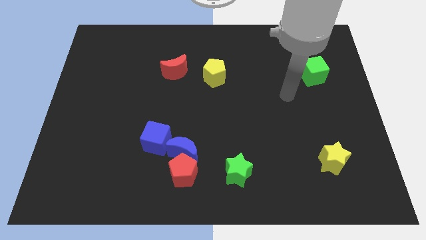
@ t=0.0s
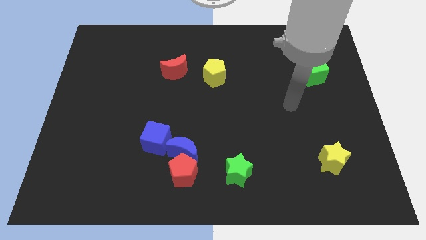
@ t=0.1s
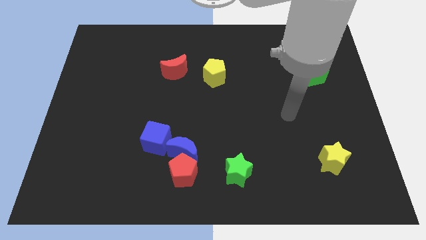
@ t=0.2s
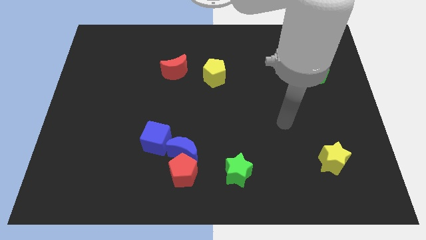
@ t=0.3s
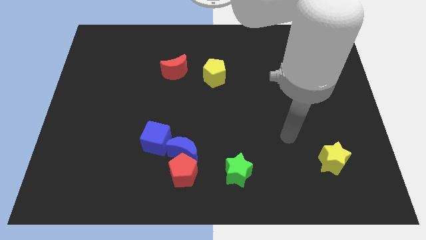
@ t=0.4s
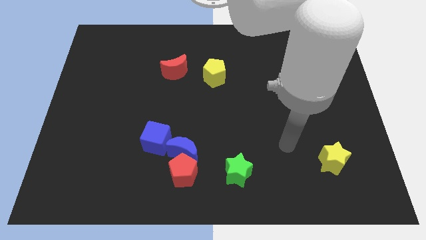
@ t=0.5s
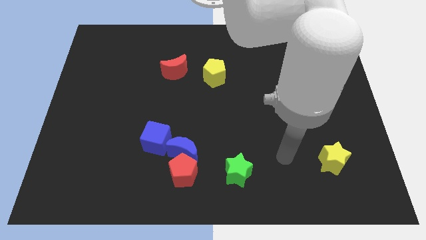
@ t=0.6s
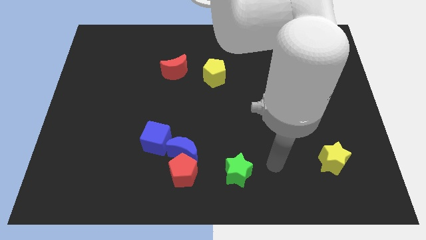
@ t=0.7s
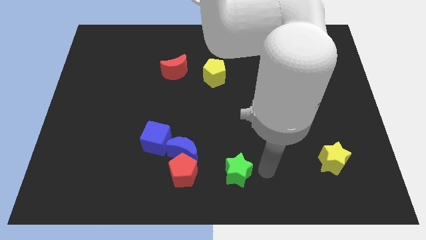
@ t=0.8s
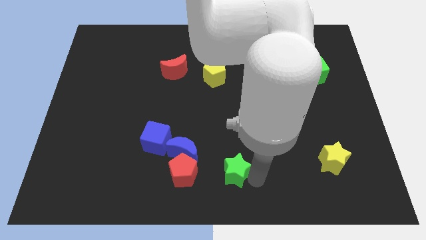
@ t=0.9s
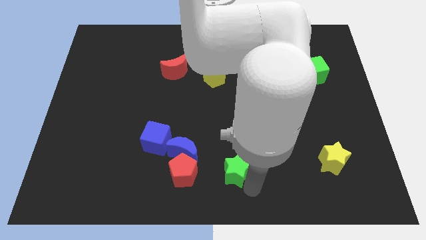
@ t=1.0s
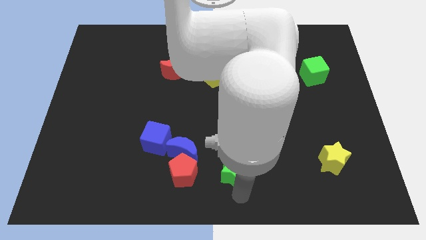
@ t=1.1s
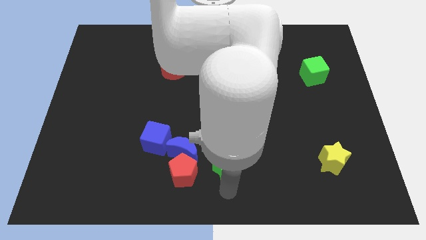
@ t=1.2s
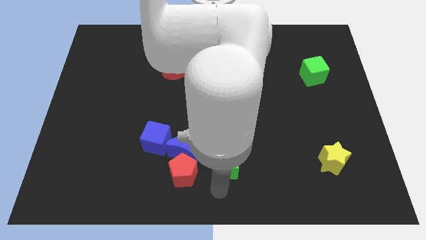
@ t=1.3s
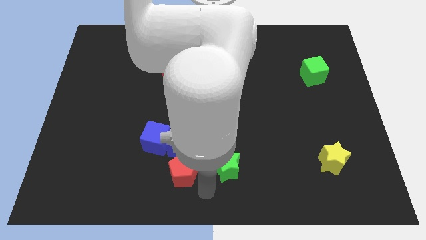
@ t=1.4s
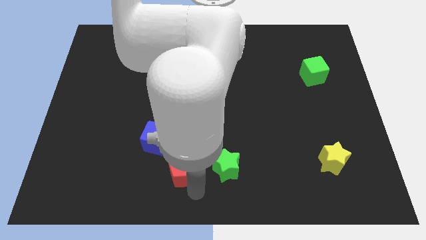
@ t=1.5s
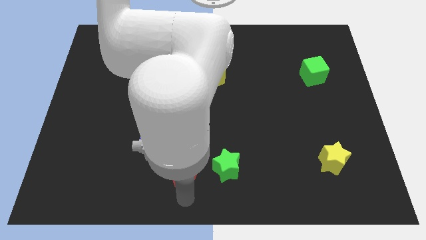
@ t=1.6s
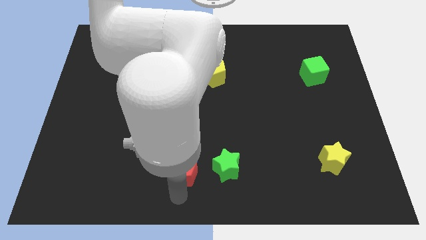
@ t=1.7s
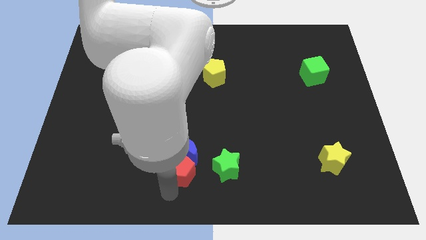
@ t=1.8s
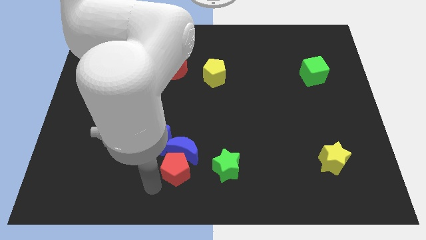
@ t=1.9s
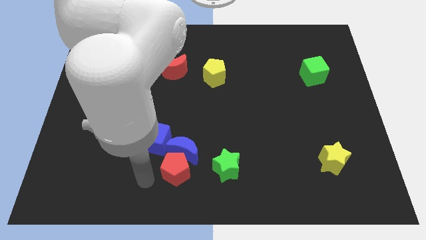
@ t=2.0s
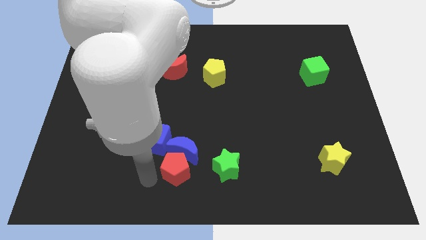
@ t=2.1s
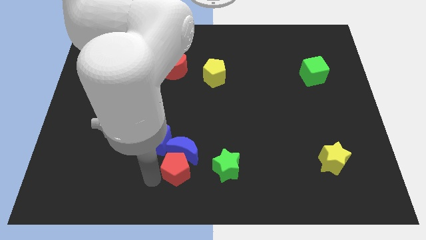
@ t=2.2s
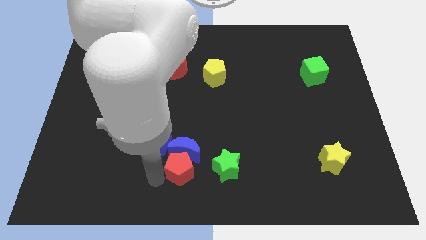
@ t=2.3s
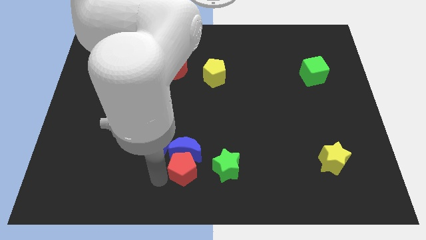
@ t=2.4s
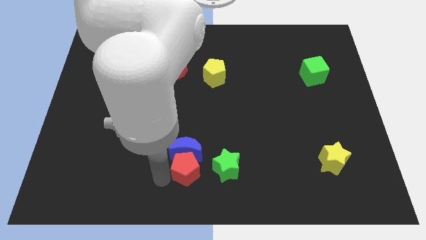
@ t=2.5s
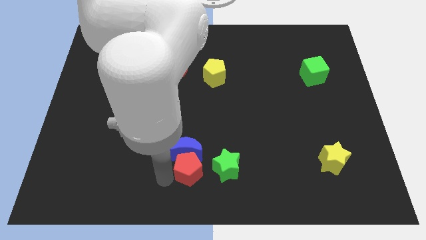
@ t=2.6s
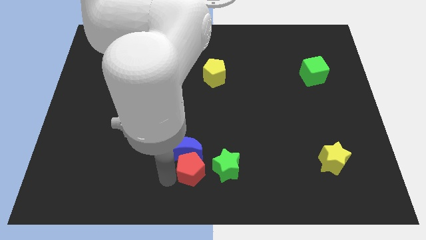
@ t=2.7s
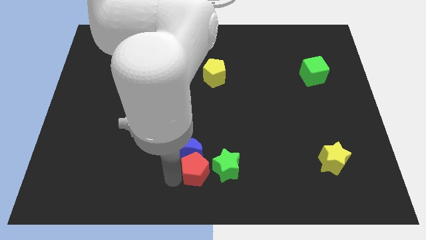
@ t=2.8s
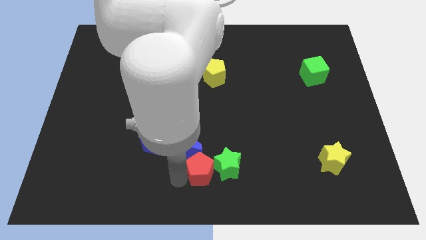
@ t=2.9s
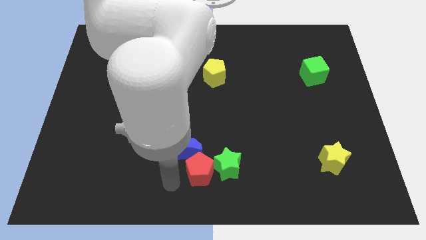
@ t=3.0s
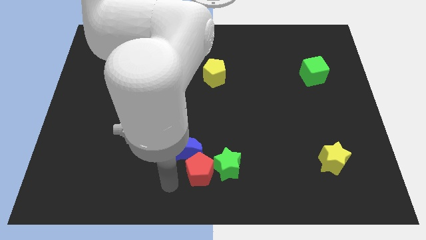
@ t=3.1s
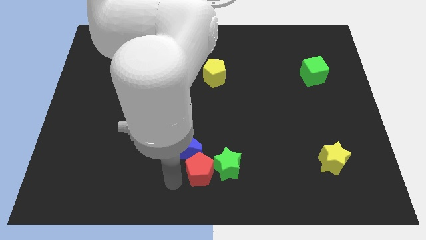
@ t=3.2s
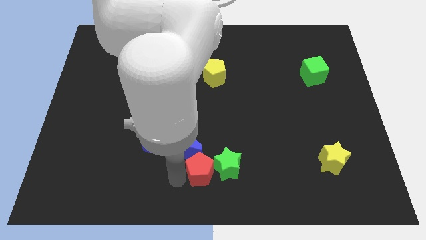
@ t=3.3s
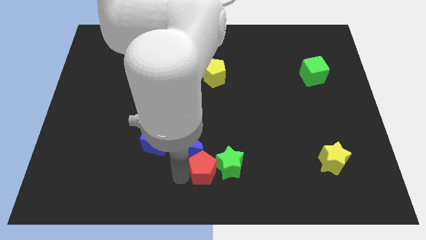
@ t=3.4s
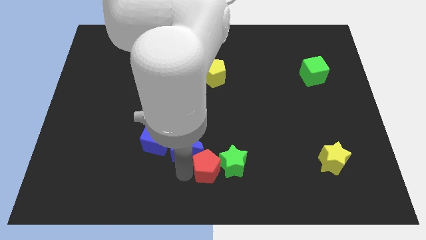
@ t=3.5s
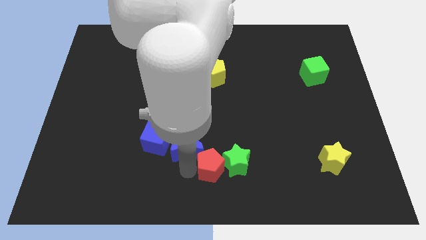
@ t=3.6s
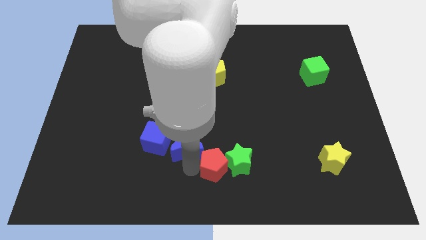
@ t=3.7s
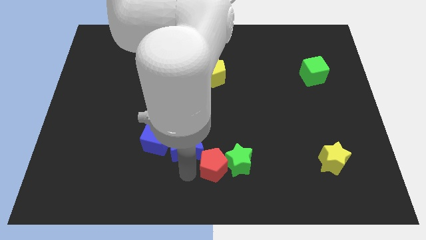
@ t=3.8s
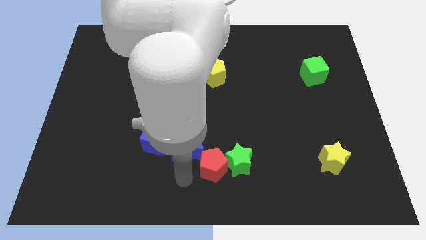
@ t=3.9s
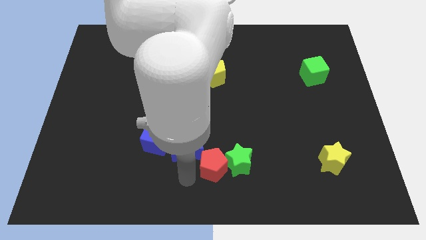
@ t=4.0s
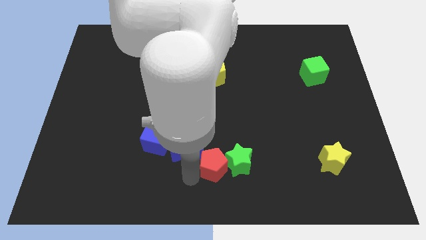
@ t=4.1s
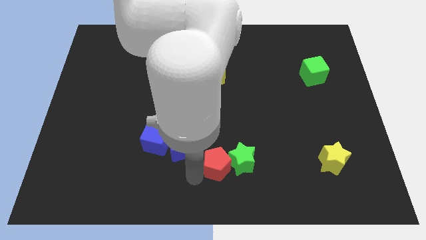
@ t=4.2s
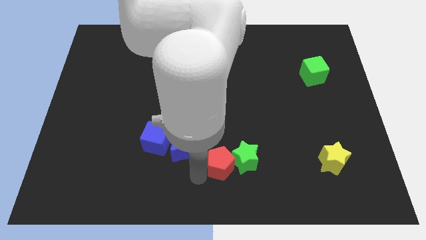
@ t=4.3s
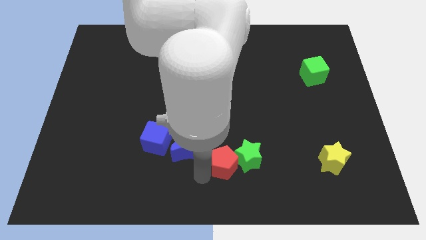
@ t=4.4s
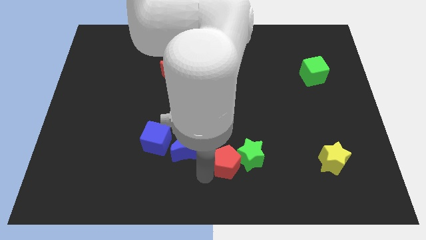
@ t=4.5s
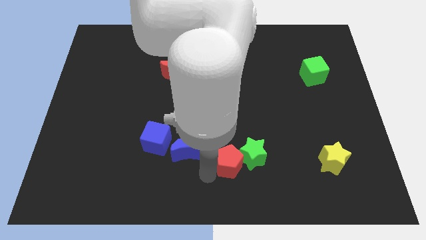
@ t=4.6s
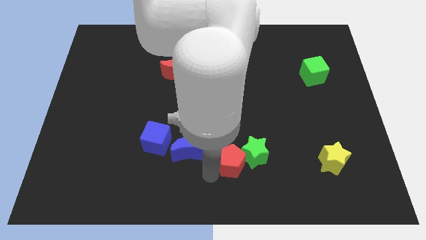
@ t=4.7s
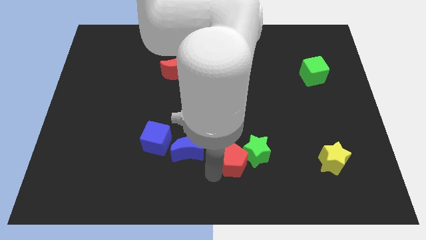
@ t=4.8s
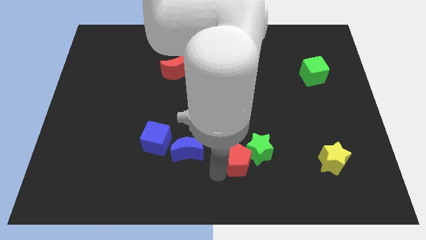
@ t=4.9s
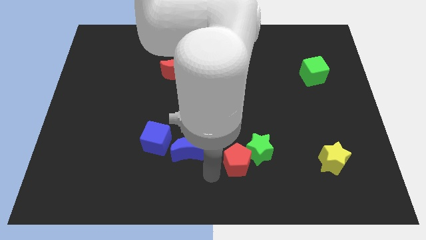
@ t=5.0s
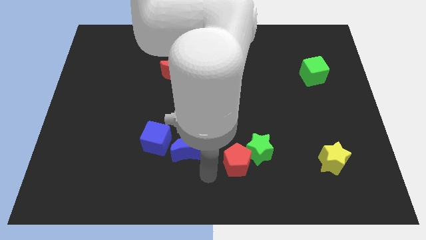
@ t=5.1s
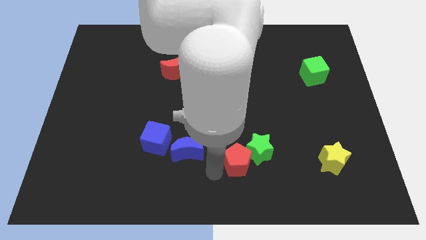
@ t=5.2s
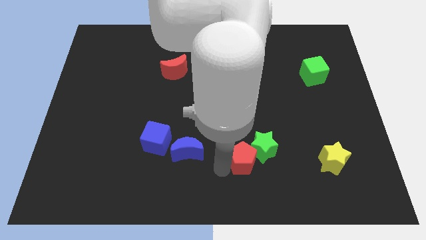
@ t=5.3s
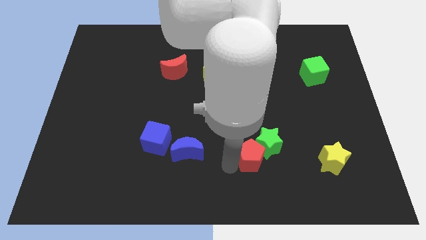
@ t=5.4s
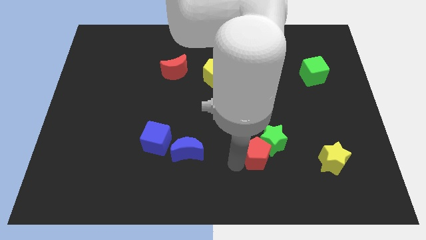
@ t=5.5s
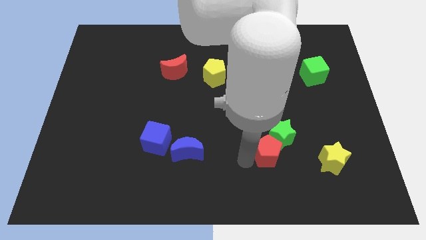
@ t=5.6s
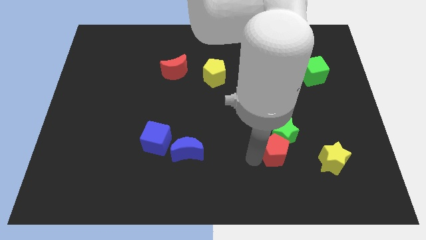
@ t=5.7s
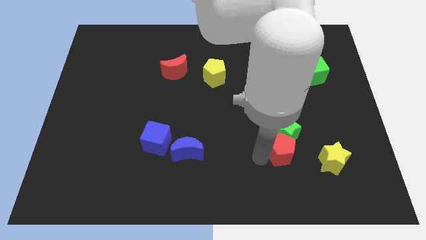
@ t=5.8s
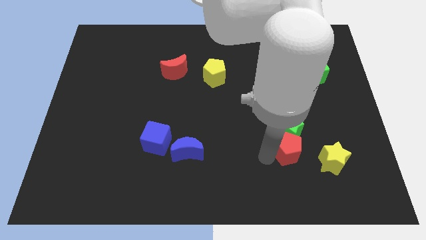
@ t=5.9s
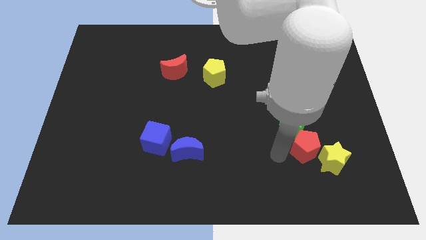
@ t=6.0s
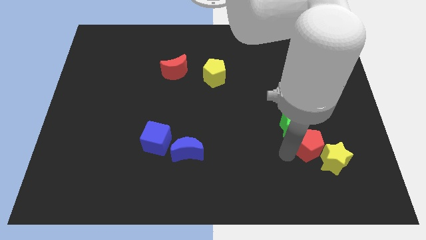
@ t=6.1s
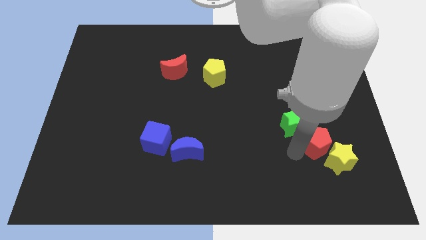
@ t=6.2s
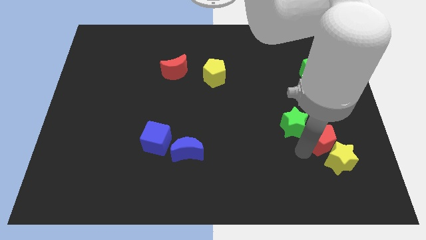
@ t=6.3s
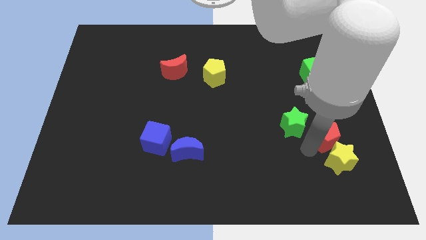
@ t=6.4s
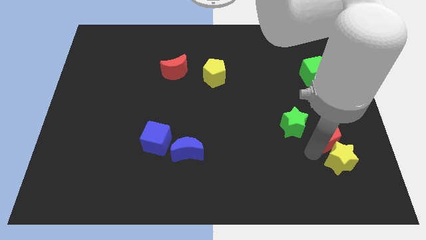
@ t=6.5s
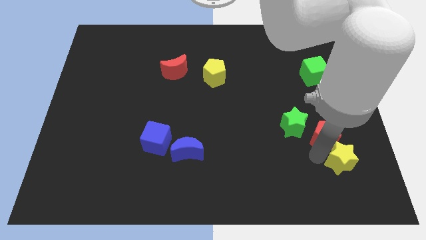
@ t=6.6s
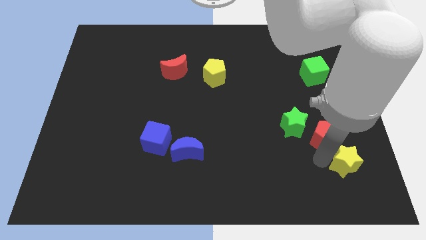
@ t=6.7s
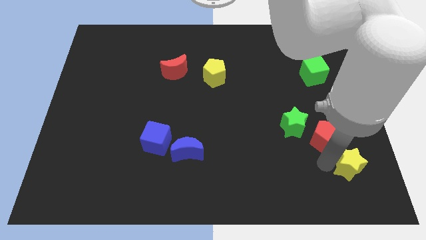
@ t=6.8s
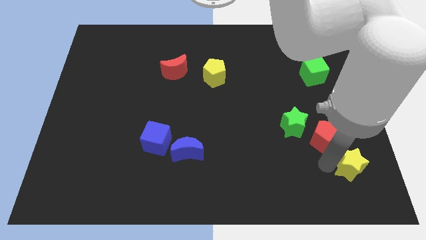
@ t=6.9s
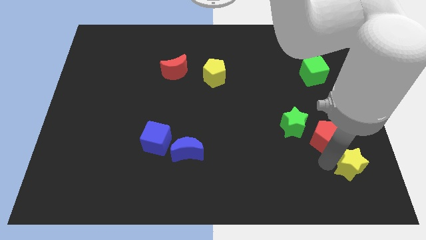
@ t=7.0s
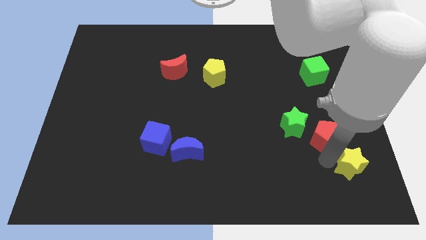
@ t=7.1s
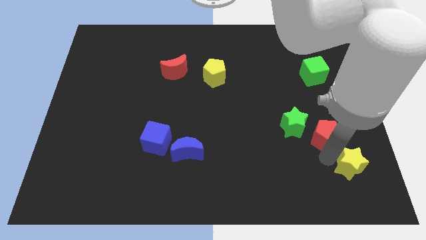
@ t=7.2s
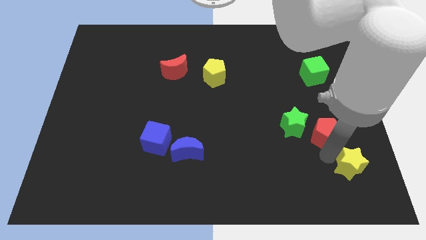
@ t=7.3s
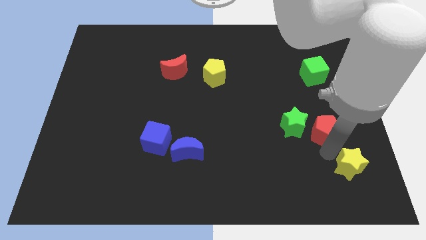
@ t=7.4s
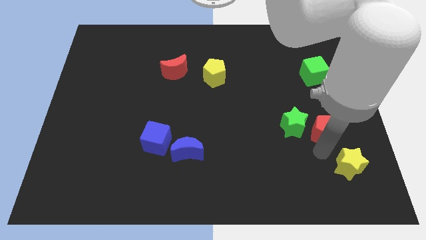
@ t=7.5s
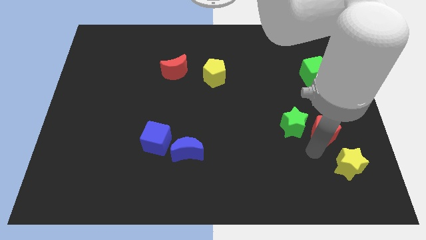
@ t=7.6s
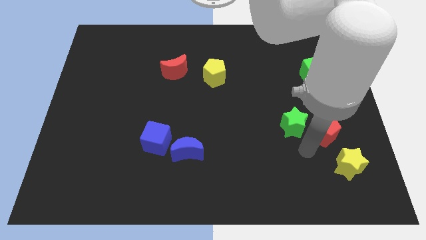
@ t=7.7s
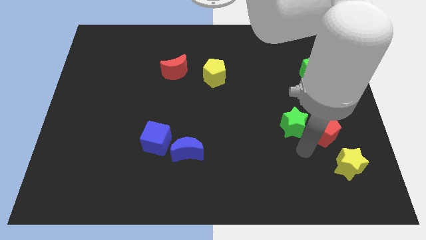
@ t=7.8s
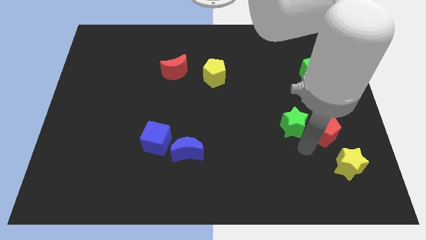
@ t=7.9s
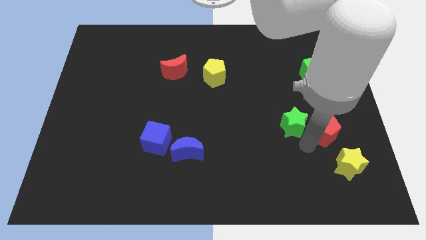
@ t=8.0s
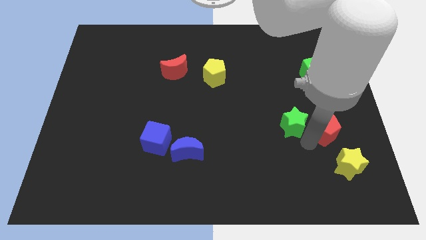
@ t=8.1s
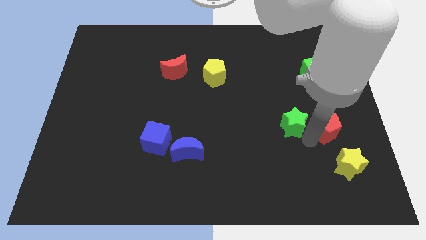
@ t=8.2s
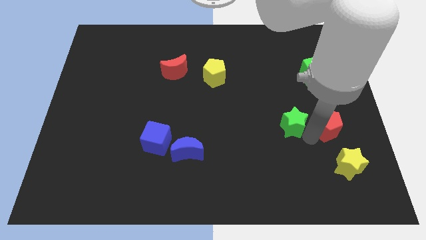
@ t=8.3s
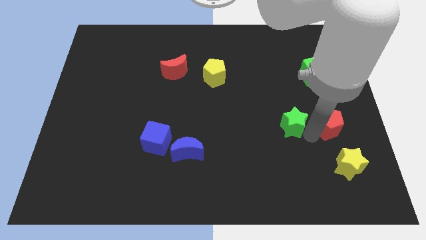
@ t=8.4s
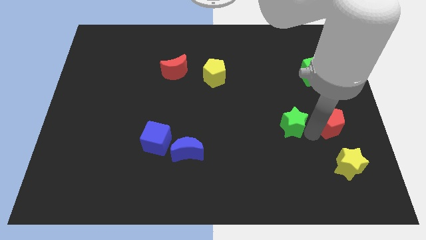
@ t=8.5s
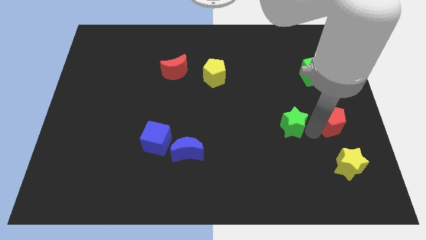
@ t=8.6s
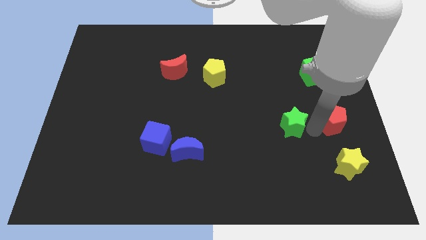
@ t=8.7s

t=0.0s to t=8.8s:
put the red pentagon to the center right
